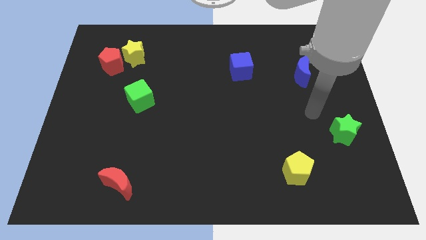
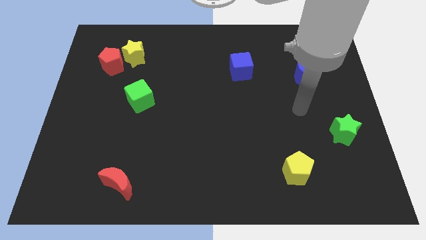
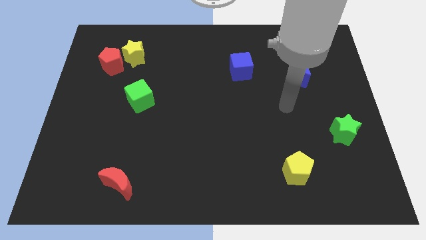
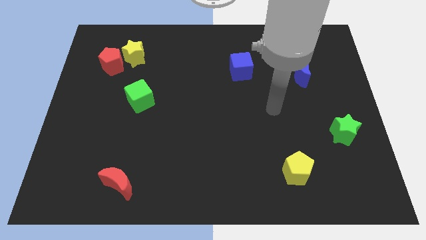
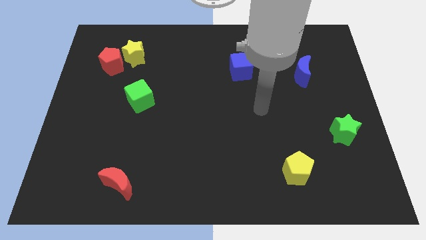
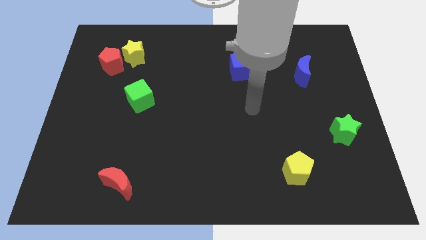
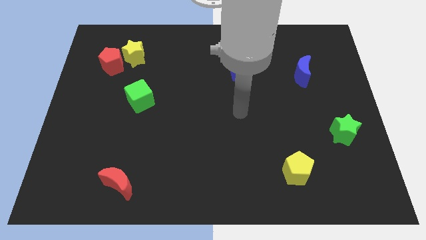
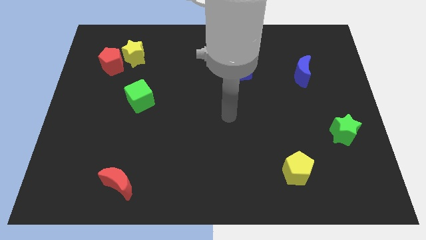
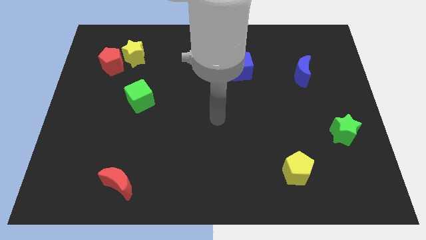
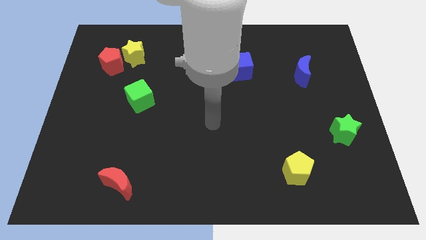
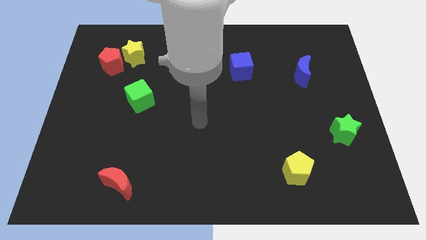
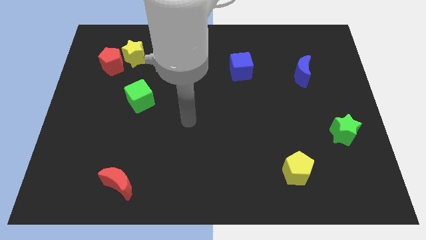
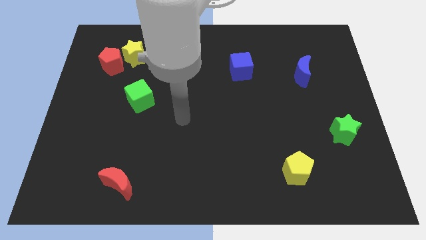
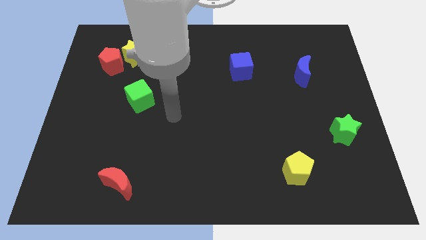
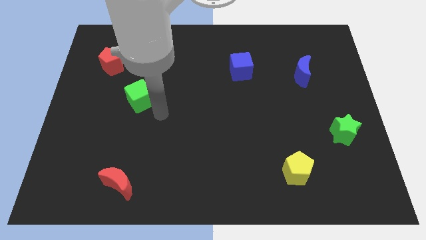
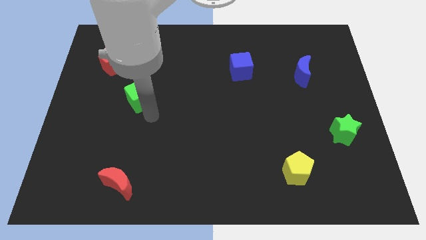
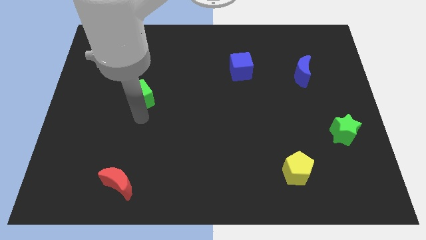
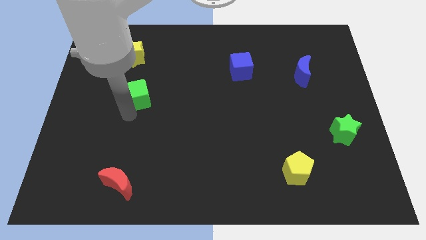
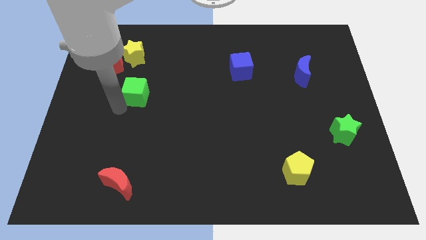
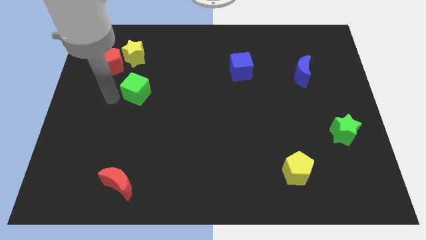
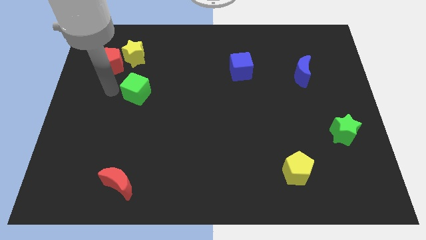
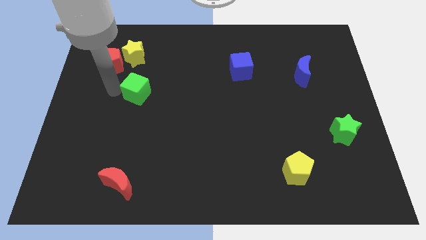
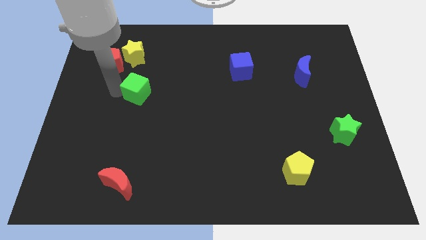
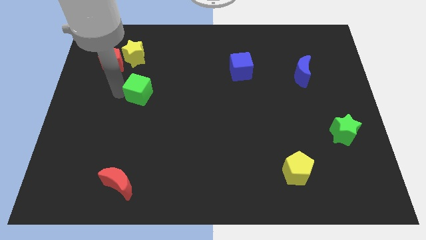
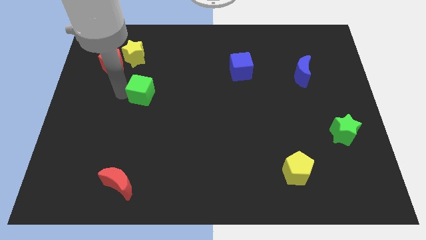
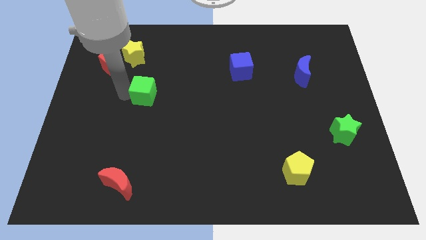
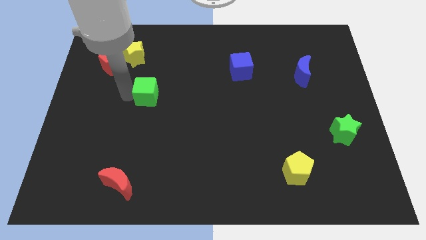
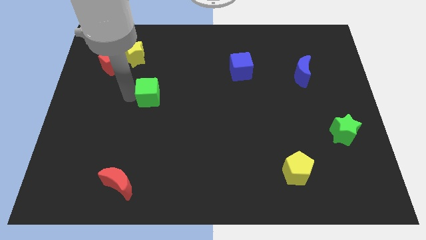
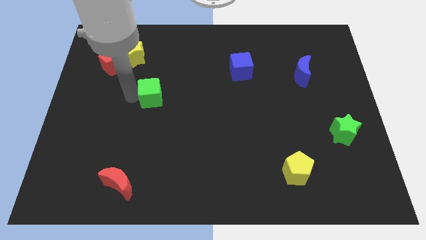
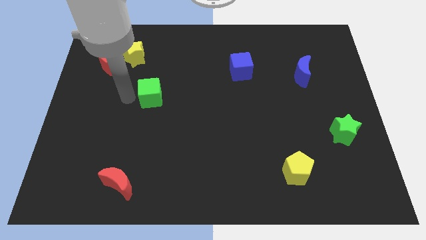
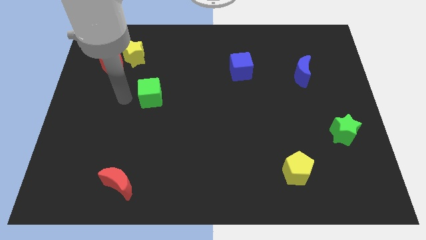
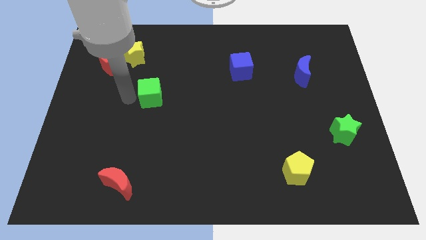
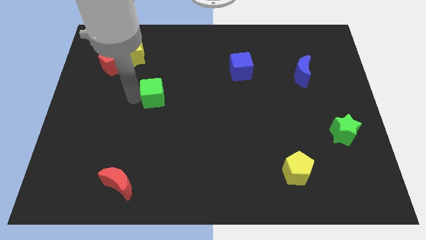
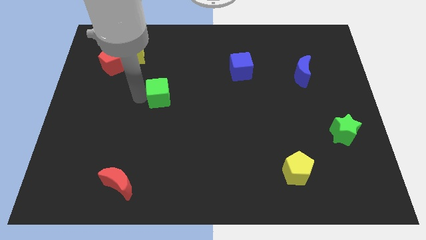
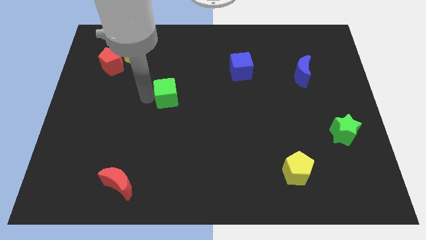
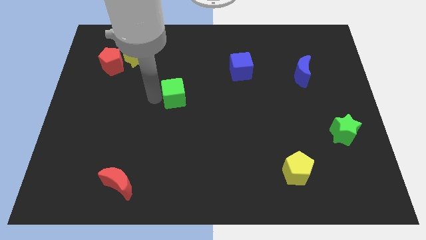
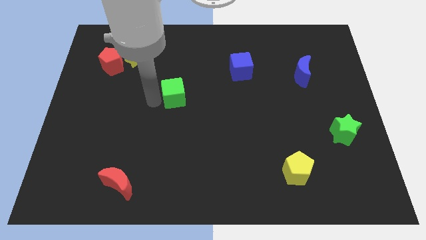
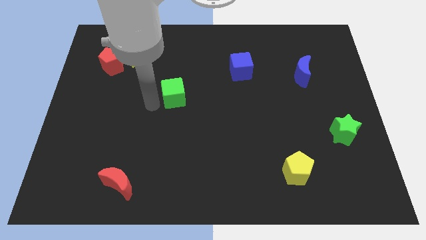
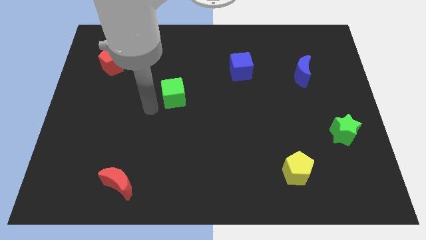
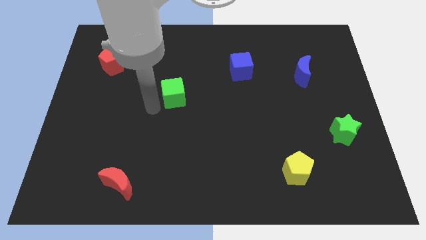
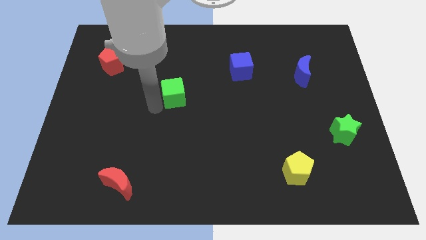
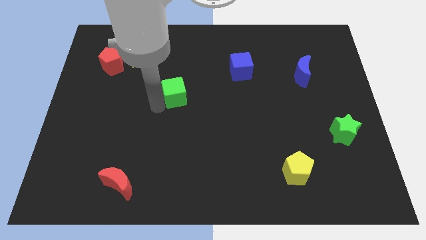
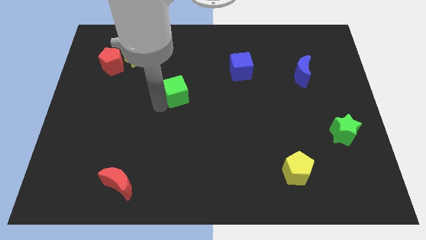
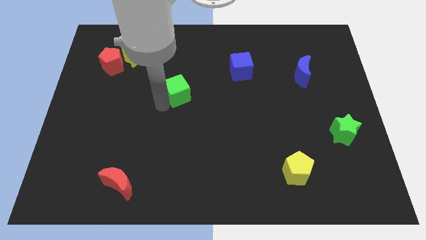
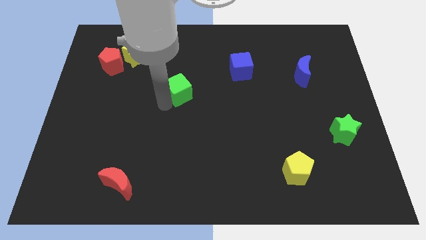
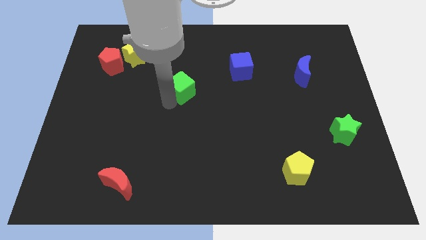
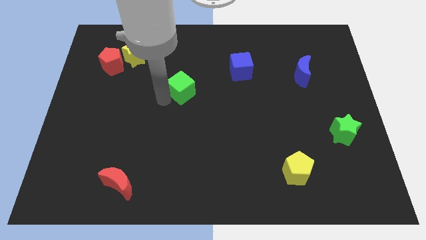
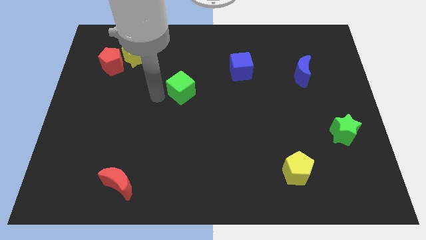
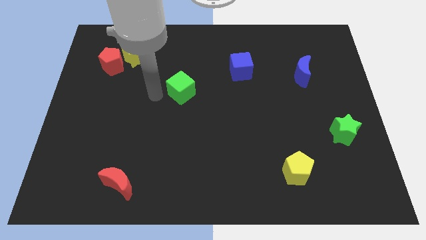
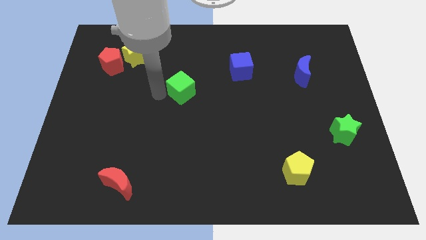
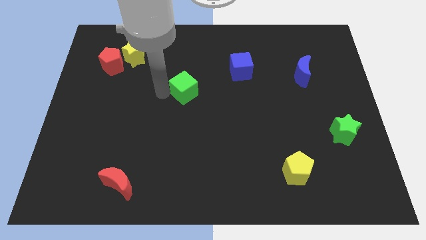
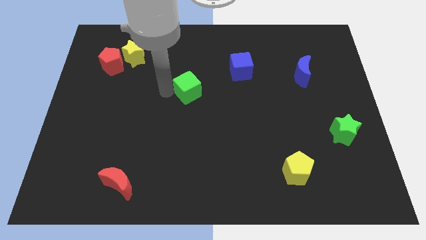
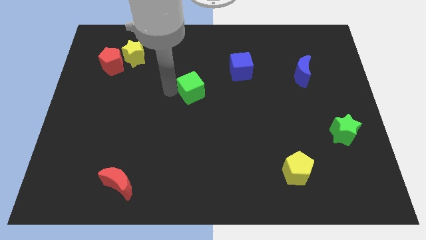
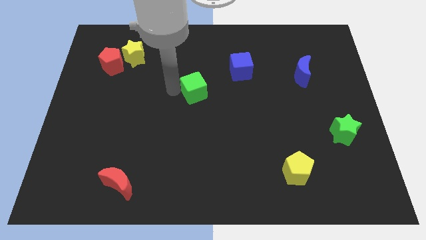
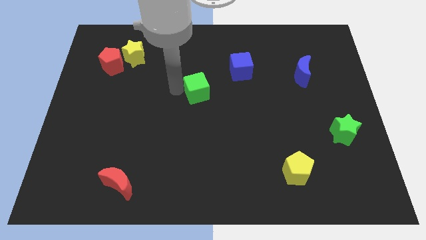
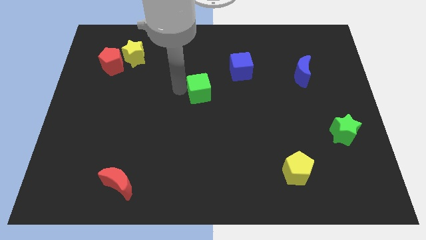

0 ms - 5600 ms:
move the green cube diagonally down and to the left of the blue cube

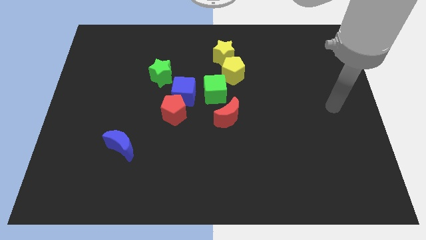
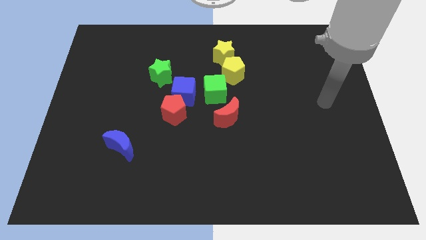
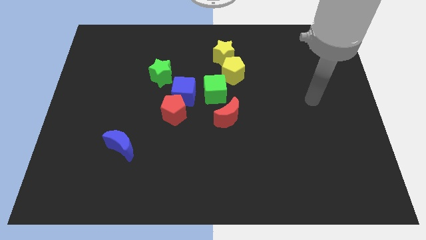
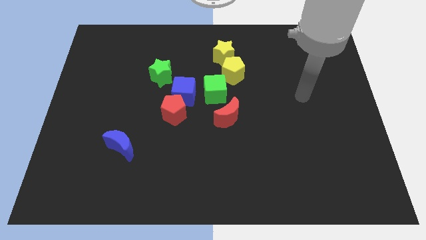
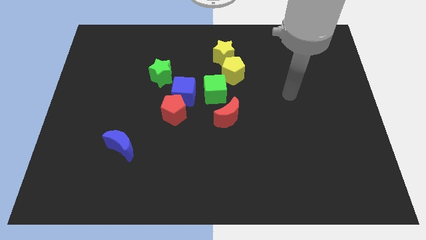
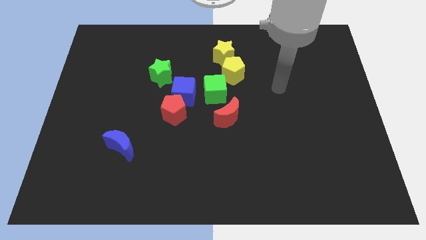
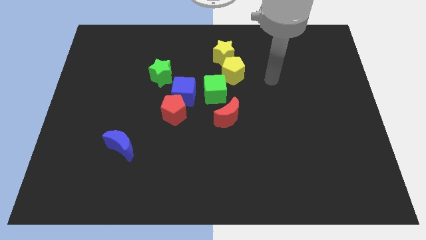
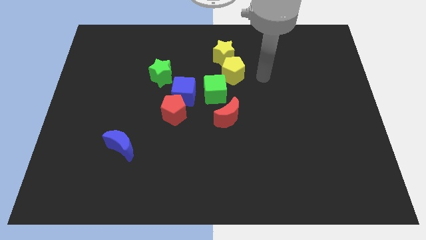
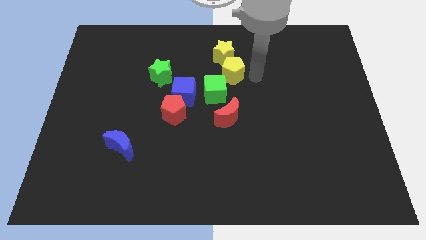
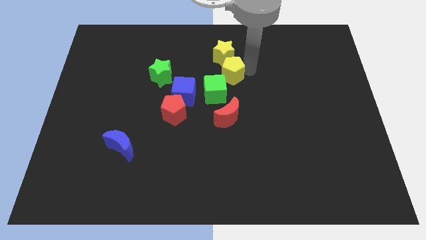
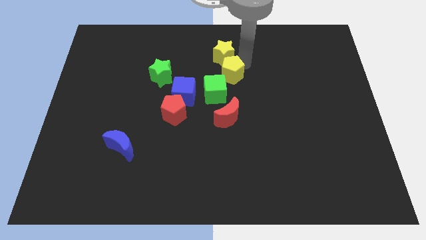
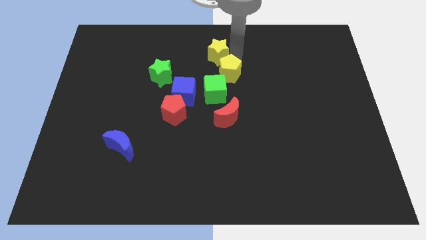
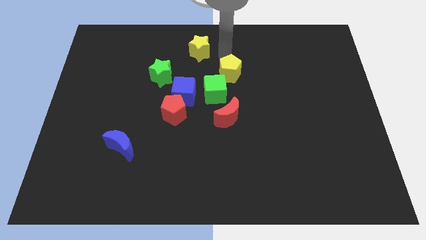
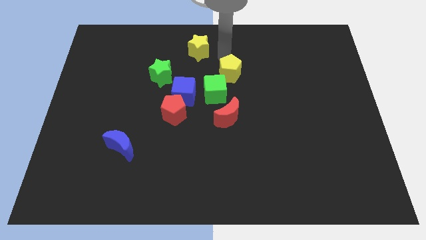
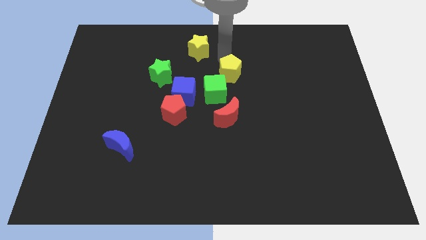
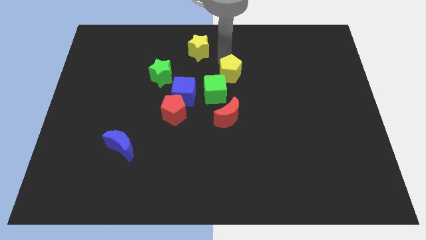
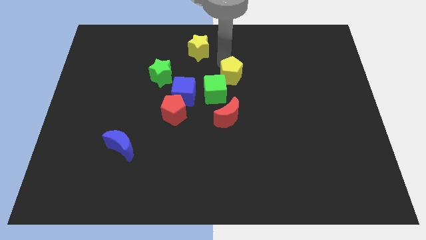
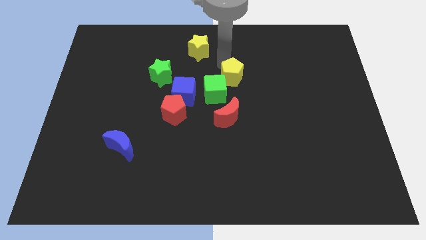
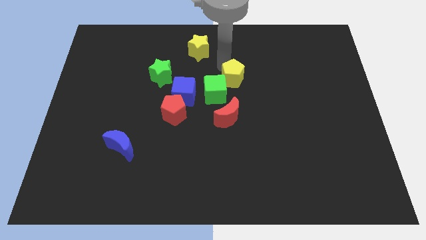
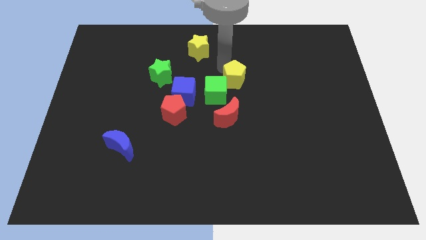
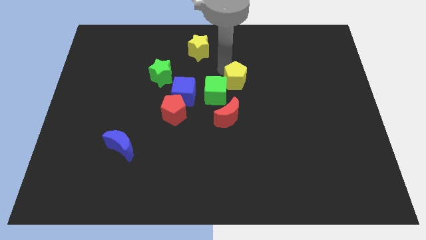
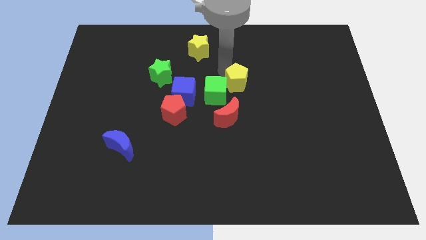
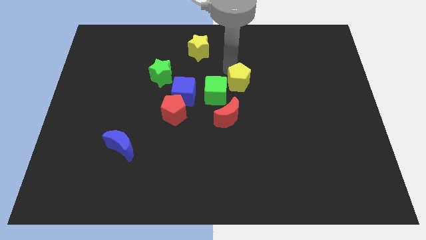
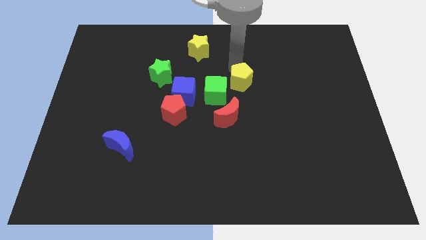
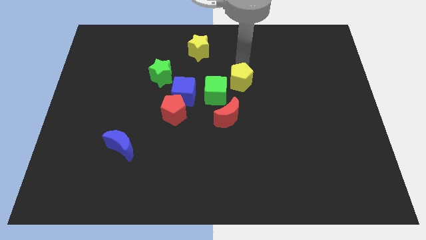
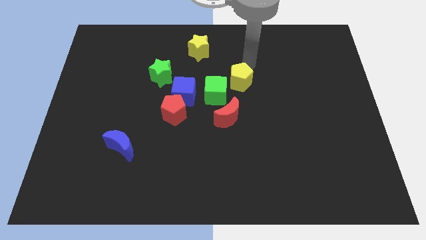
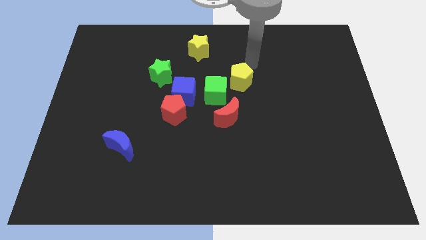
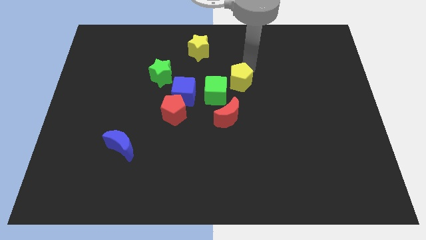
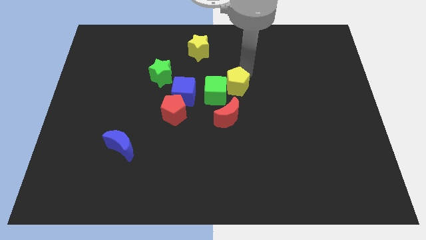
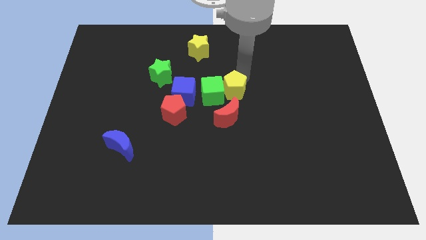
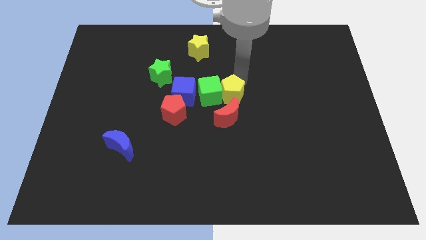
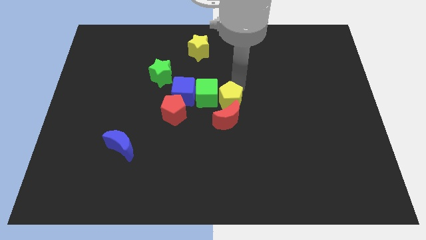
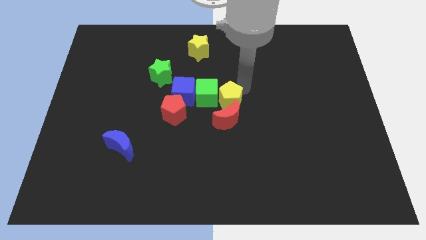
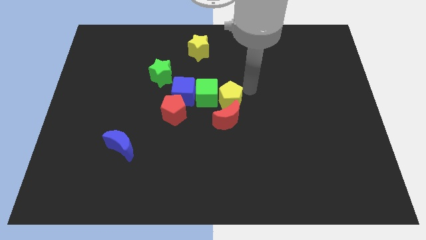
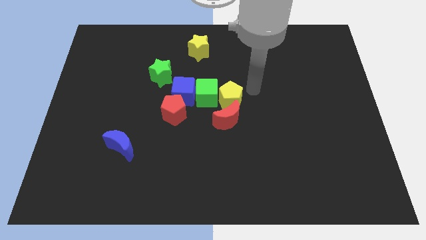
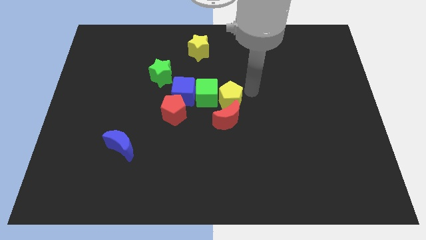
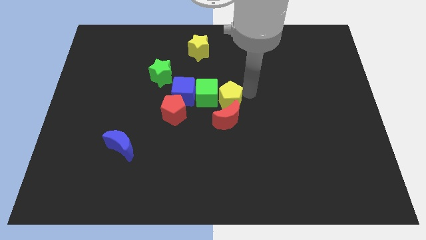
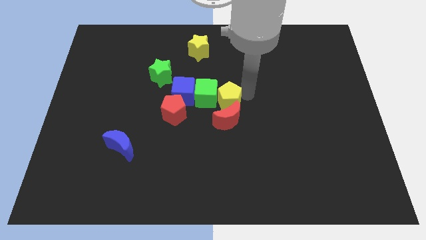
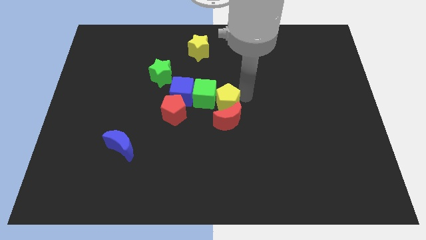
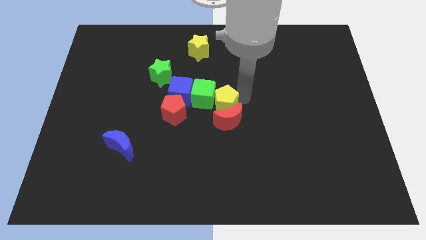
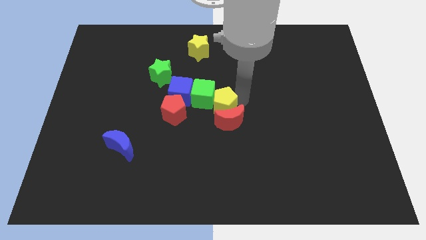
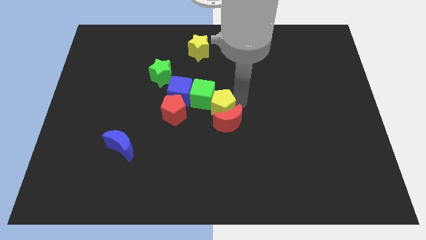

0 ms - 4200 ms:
put the yellow pentagon to the bottom right of the blue cube
